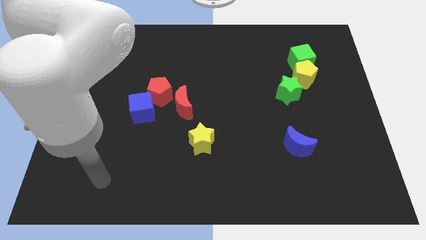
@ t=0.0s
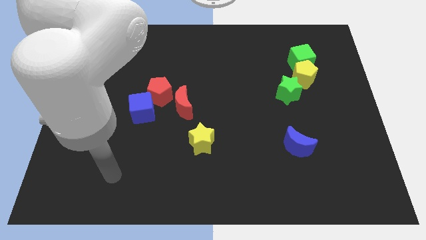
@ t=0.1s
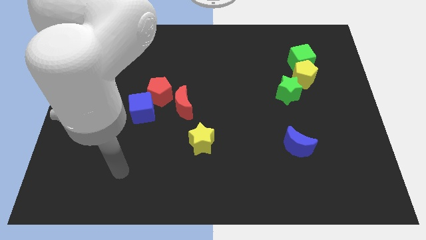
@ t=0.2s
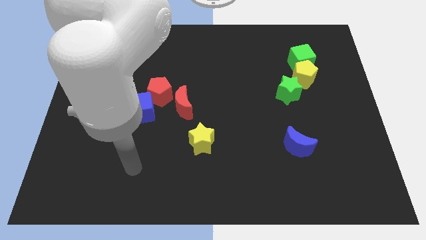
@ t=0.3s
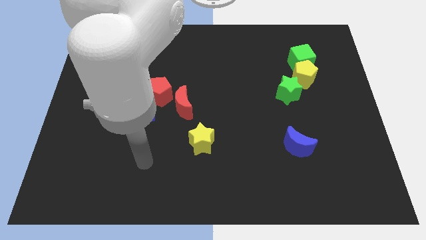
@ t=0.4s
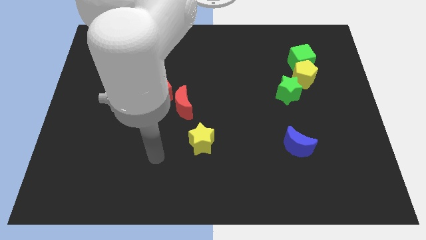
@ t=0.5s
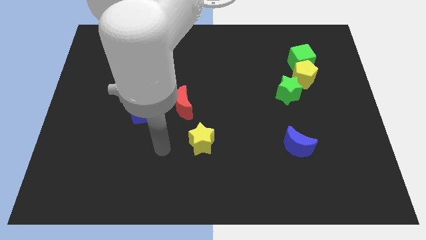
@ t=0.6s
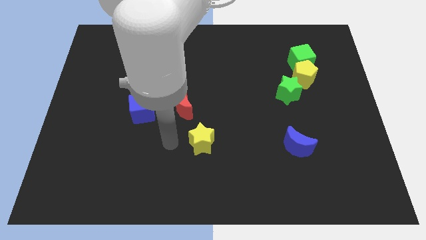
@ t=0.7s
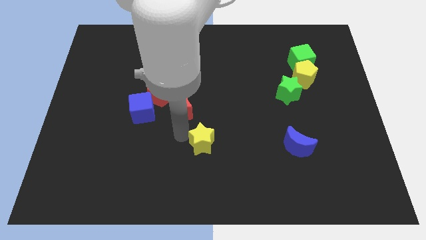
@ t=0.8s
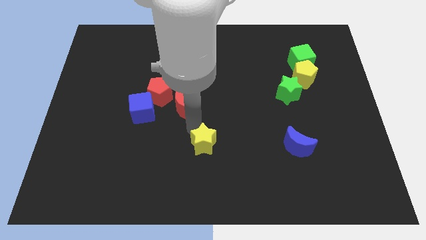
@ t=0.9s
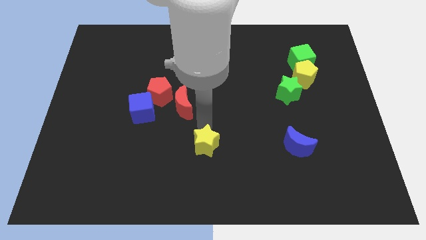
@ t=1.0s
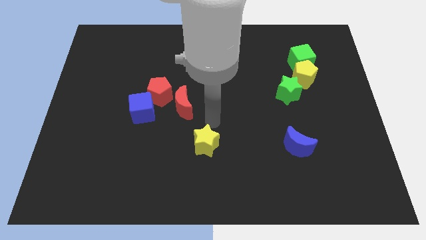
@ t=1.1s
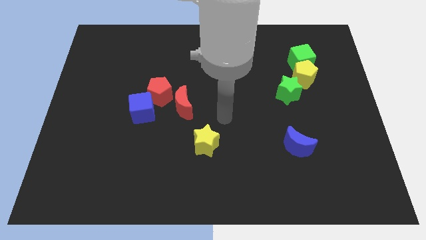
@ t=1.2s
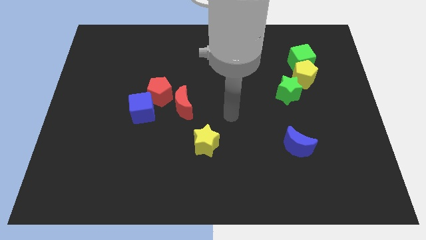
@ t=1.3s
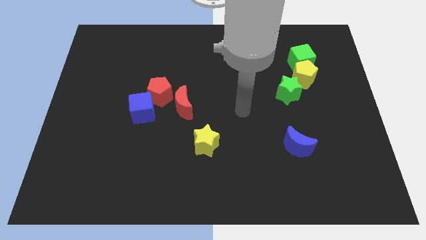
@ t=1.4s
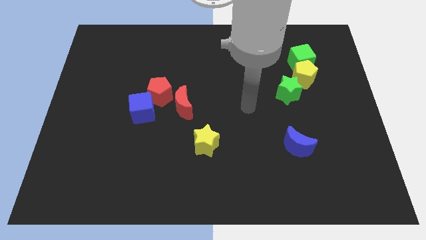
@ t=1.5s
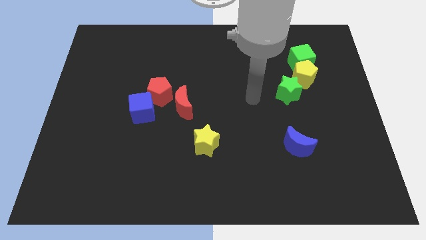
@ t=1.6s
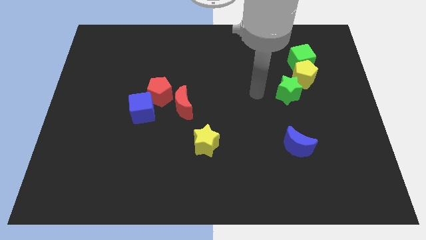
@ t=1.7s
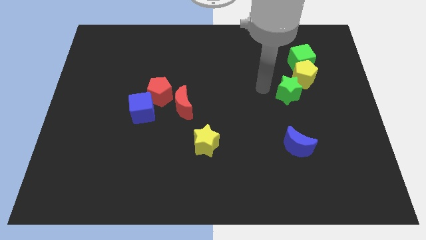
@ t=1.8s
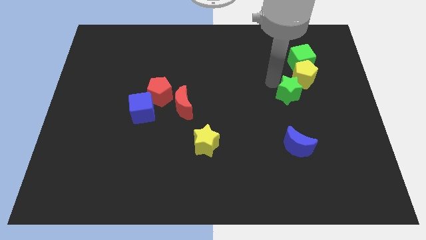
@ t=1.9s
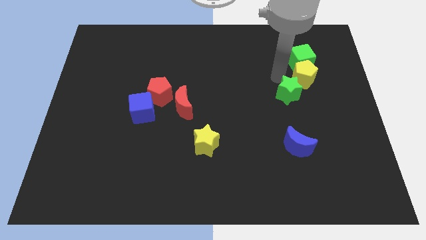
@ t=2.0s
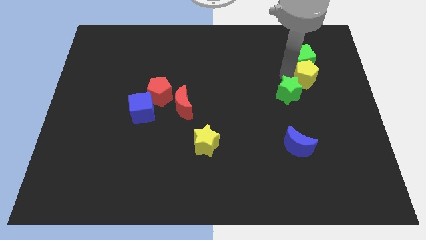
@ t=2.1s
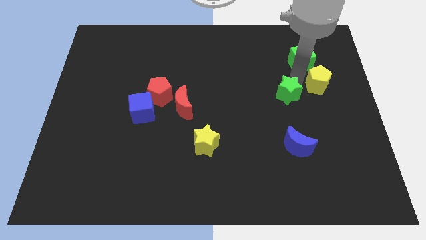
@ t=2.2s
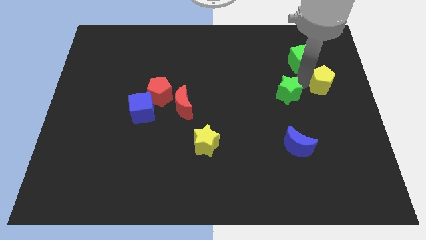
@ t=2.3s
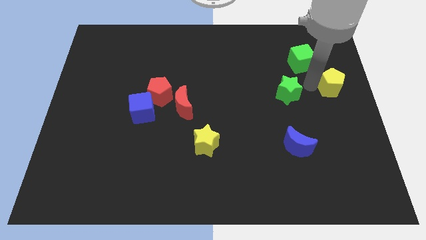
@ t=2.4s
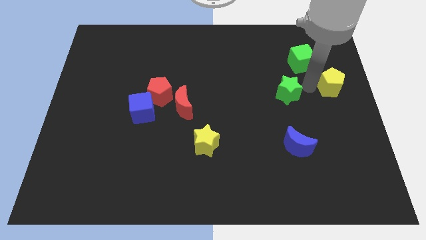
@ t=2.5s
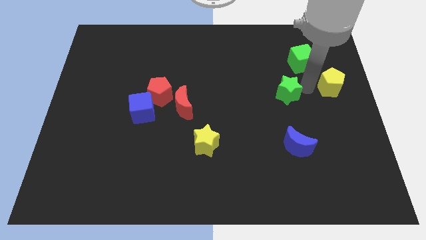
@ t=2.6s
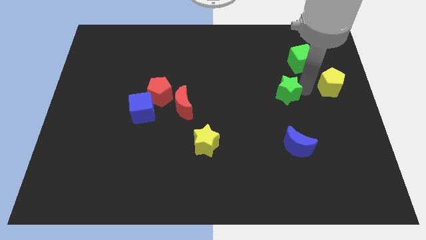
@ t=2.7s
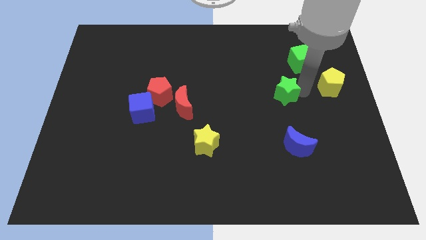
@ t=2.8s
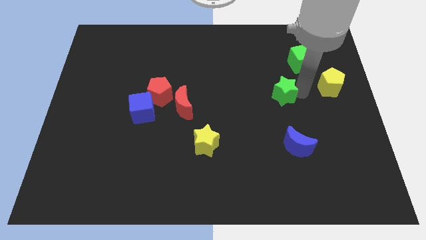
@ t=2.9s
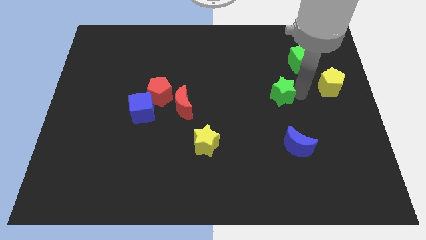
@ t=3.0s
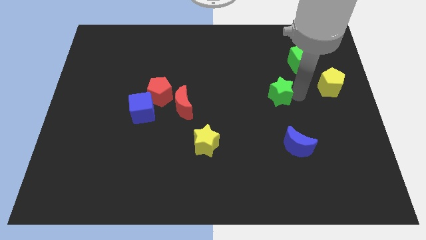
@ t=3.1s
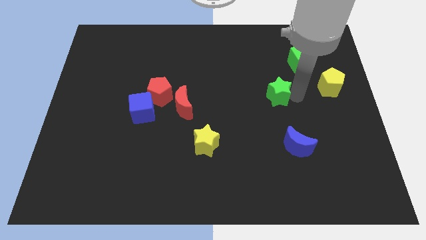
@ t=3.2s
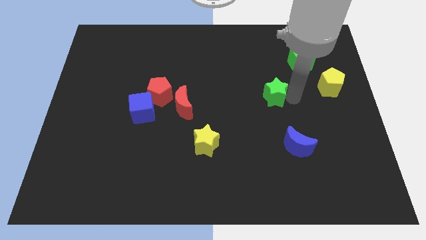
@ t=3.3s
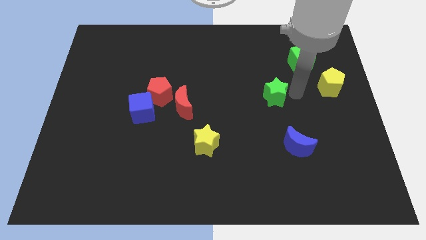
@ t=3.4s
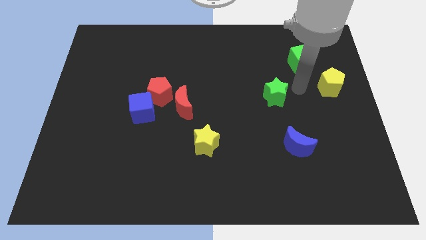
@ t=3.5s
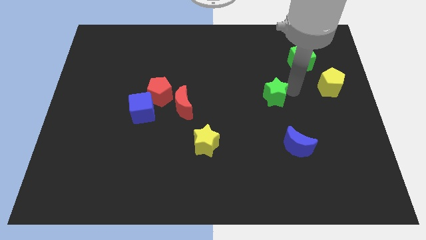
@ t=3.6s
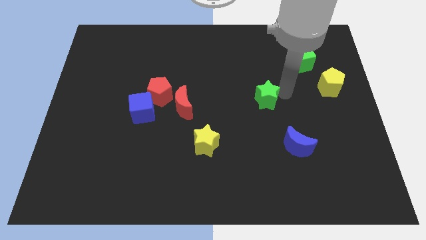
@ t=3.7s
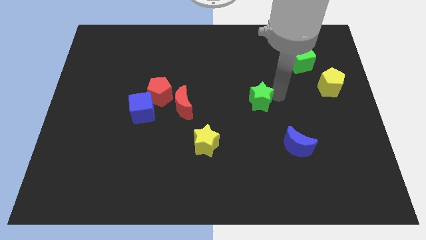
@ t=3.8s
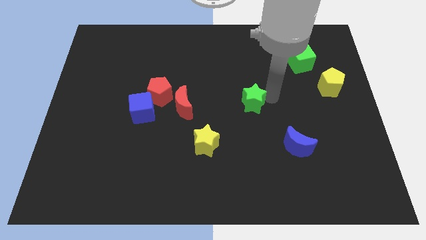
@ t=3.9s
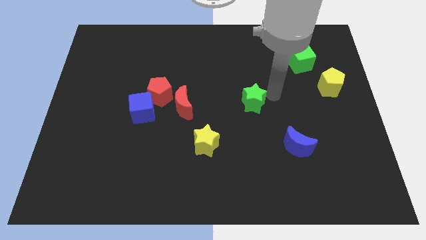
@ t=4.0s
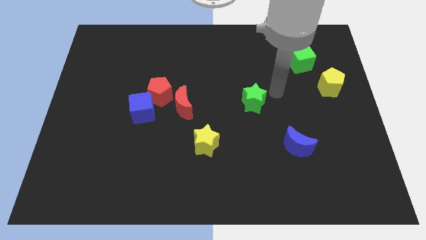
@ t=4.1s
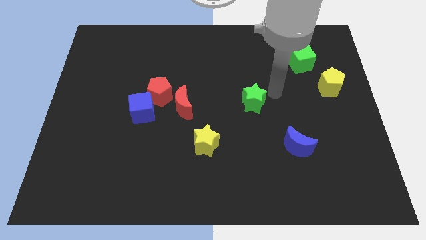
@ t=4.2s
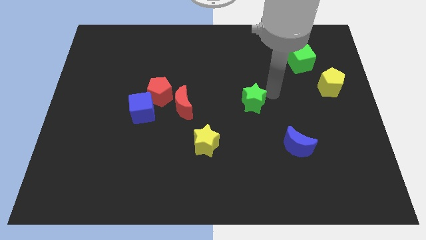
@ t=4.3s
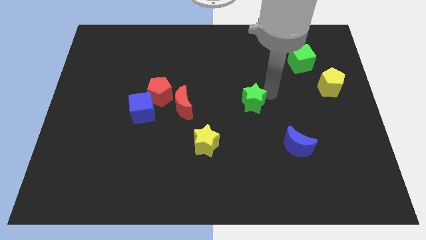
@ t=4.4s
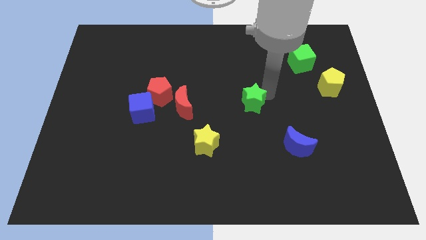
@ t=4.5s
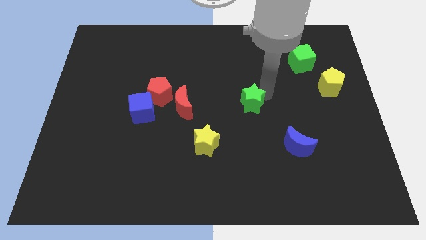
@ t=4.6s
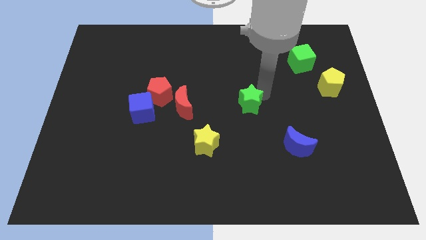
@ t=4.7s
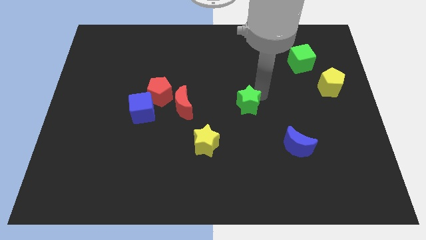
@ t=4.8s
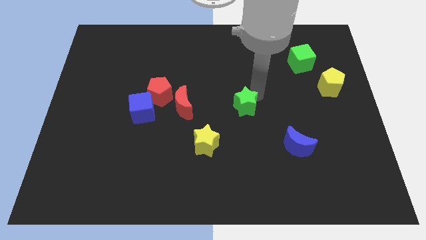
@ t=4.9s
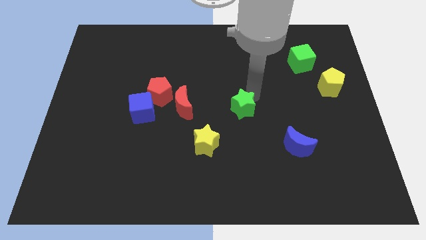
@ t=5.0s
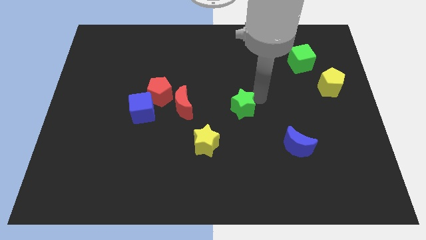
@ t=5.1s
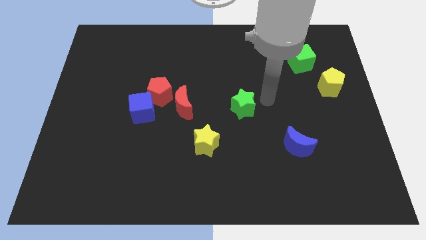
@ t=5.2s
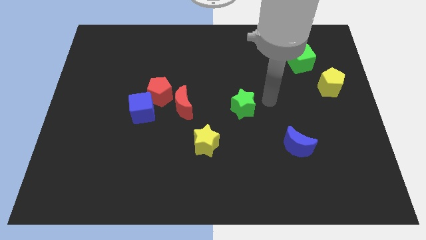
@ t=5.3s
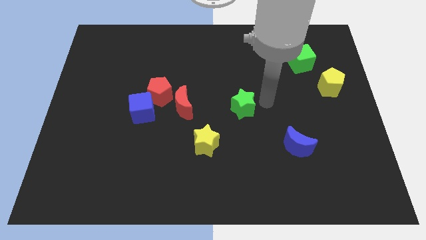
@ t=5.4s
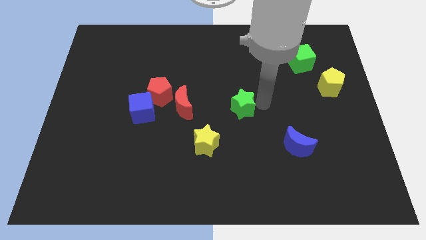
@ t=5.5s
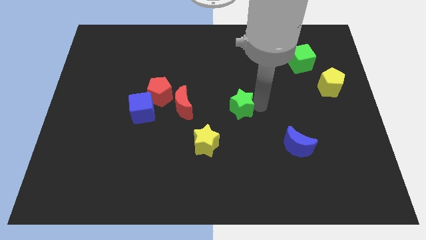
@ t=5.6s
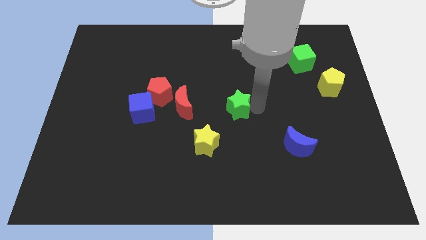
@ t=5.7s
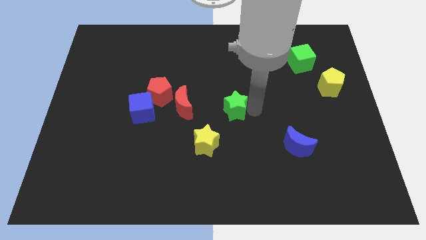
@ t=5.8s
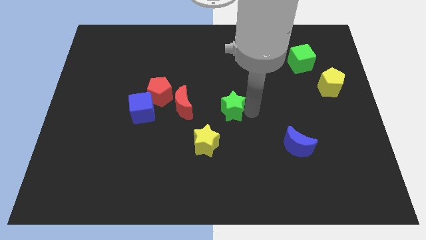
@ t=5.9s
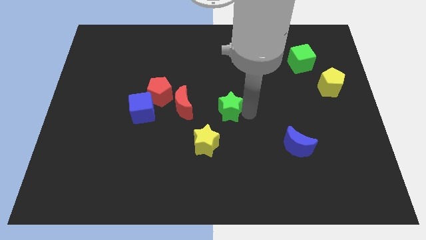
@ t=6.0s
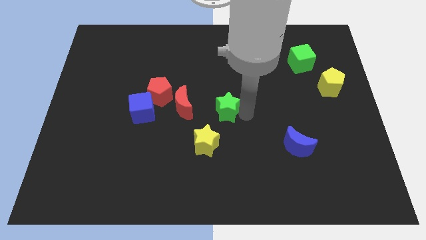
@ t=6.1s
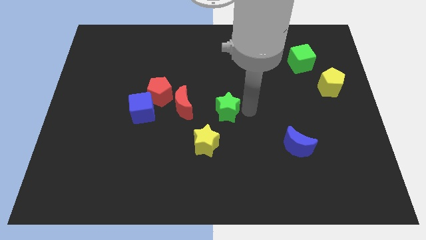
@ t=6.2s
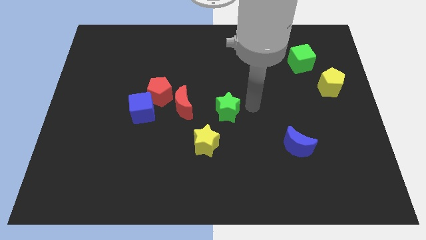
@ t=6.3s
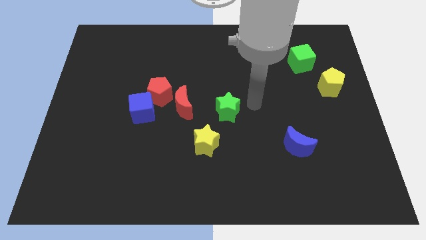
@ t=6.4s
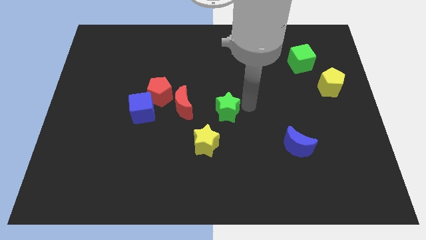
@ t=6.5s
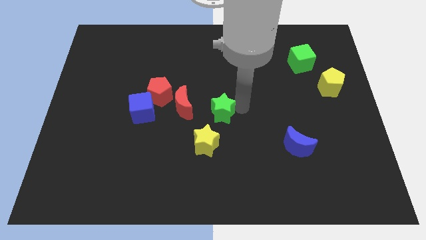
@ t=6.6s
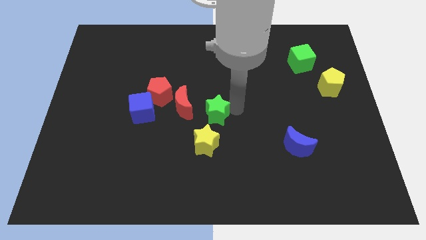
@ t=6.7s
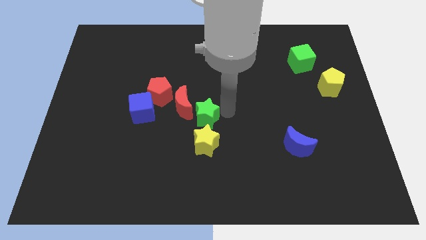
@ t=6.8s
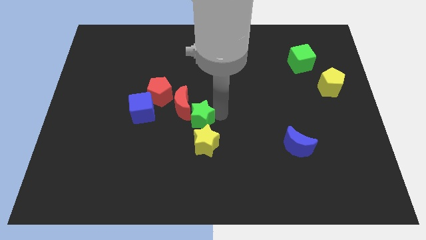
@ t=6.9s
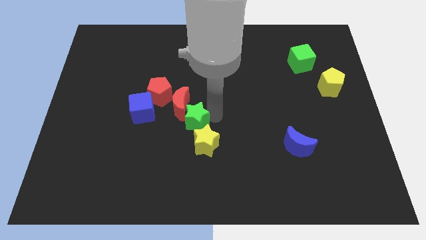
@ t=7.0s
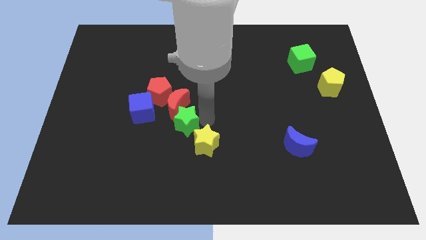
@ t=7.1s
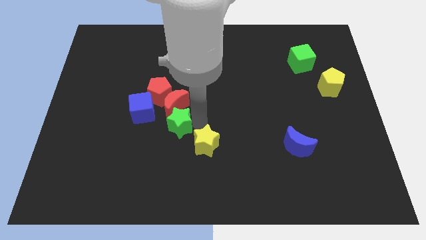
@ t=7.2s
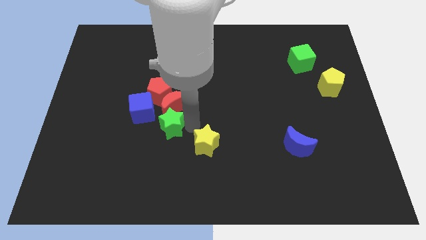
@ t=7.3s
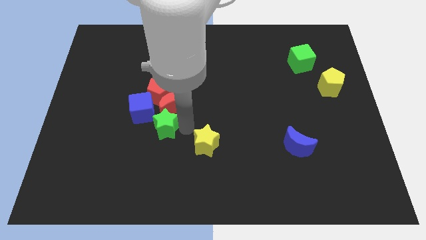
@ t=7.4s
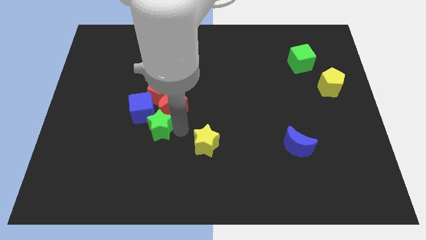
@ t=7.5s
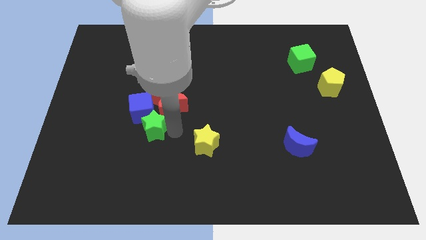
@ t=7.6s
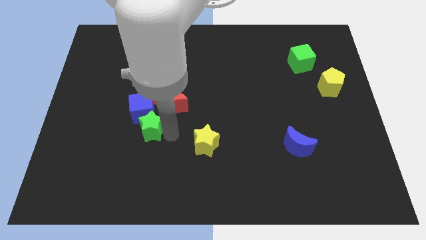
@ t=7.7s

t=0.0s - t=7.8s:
put the green star next to the blue cube
